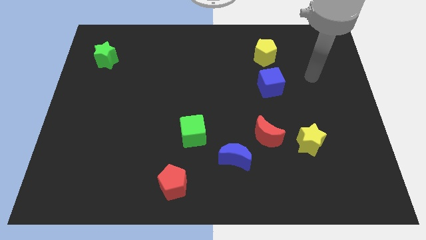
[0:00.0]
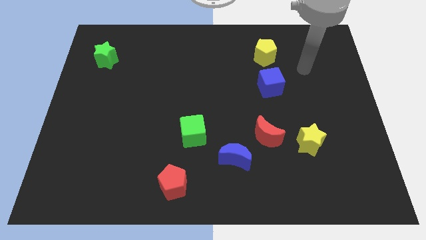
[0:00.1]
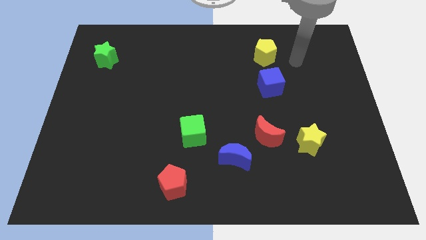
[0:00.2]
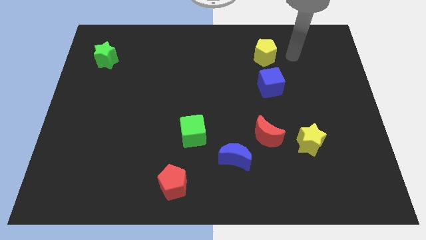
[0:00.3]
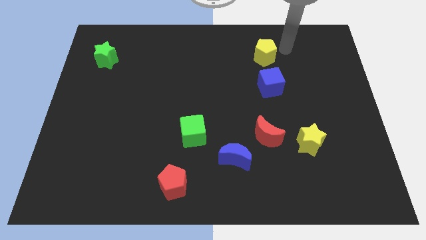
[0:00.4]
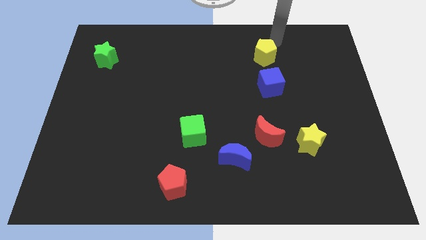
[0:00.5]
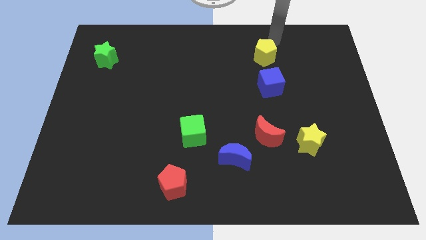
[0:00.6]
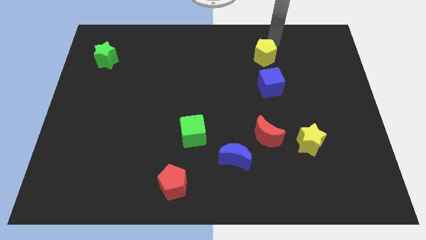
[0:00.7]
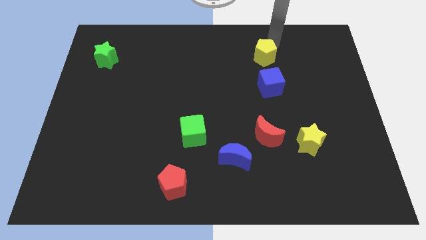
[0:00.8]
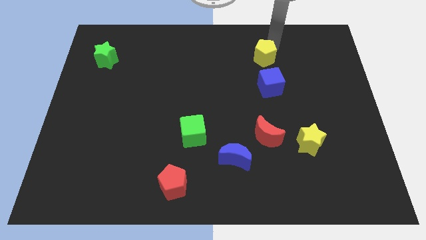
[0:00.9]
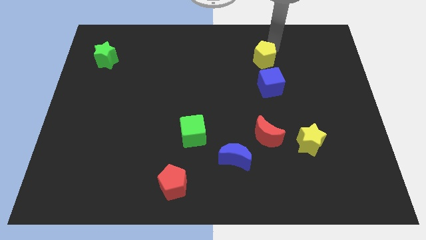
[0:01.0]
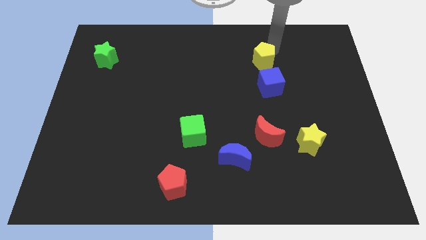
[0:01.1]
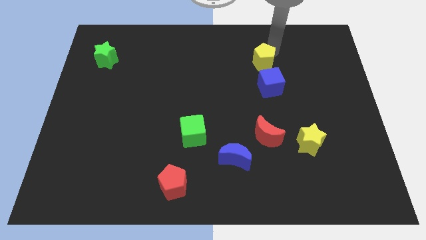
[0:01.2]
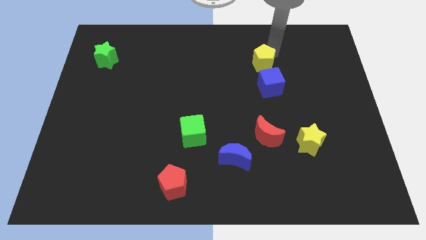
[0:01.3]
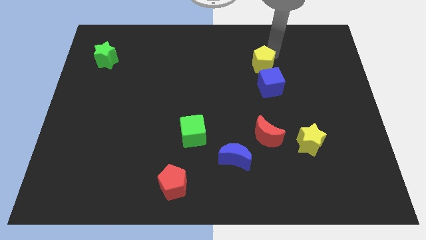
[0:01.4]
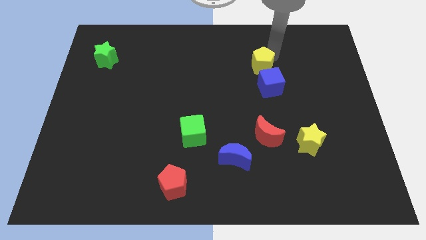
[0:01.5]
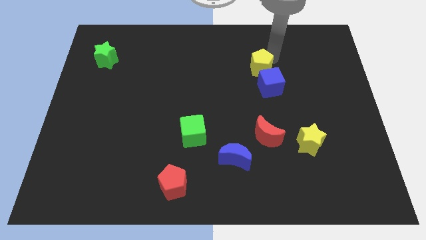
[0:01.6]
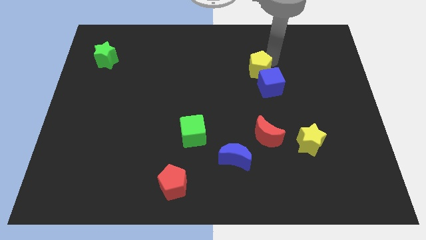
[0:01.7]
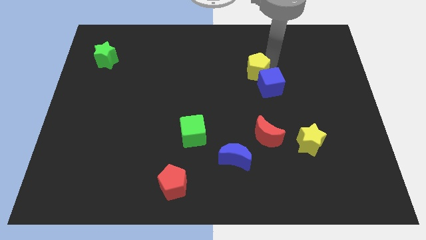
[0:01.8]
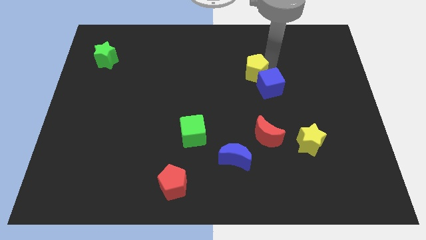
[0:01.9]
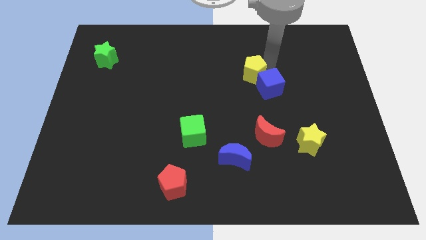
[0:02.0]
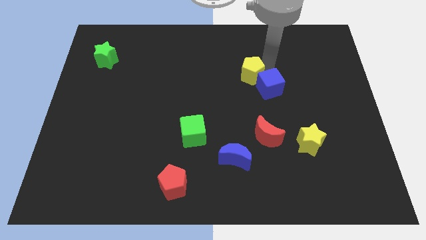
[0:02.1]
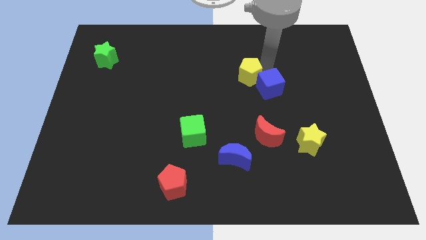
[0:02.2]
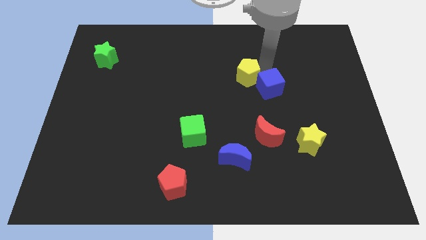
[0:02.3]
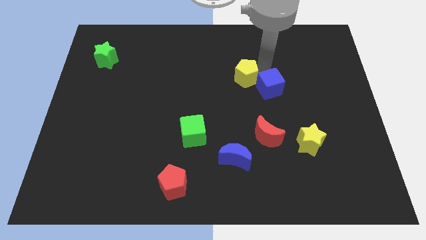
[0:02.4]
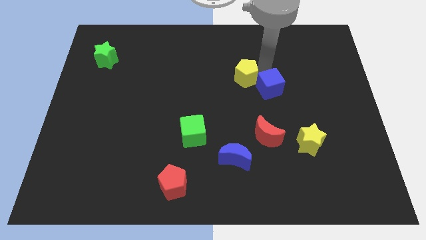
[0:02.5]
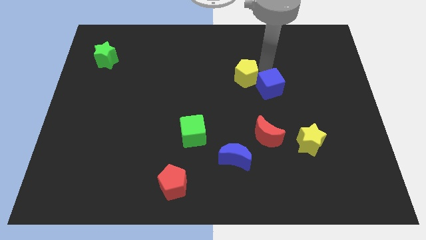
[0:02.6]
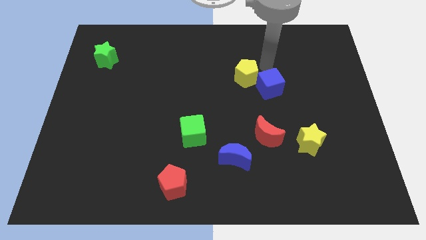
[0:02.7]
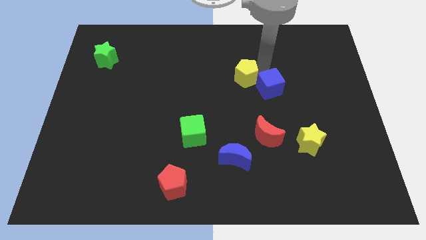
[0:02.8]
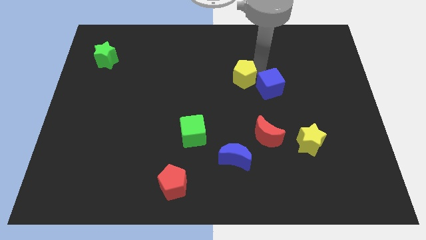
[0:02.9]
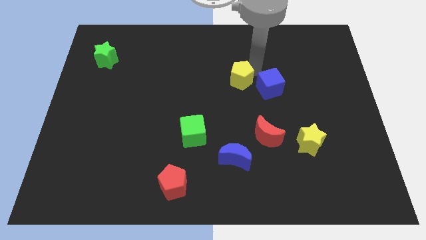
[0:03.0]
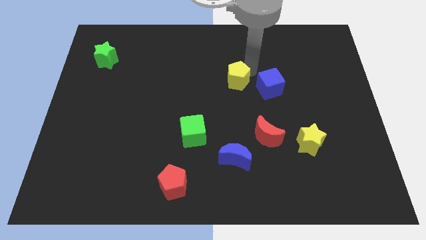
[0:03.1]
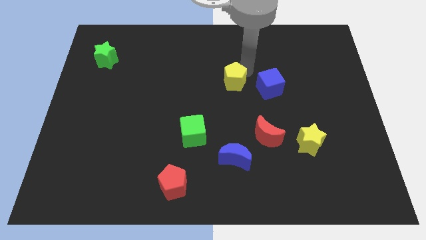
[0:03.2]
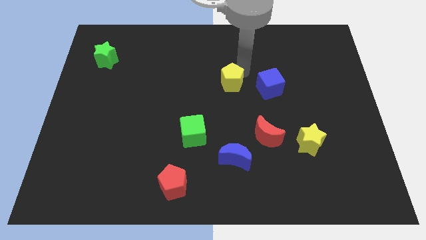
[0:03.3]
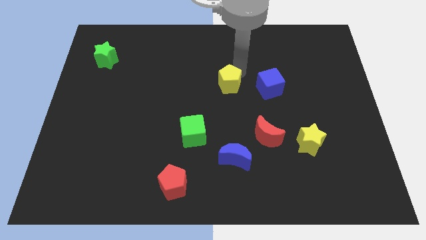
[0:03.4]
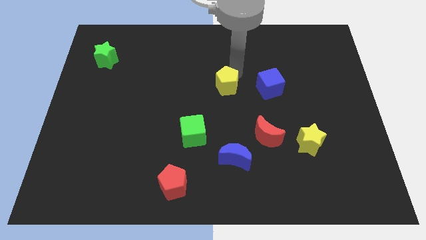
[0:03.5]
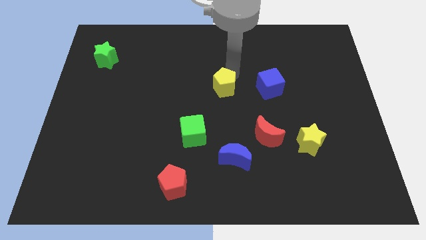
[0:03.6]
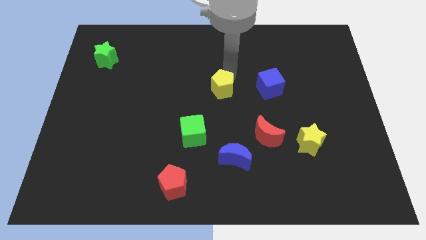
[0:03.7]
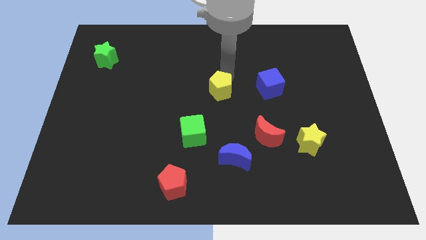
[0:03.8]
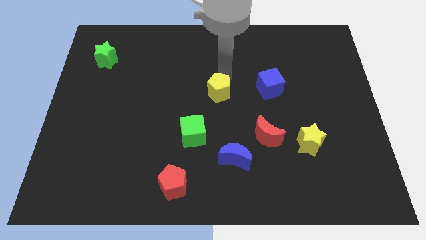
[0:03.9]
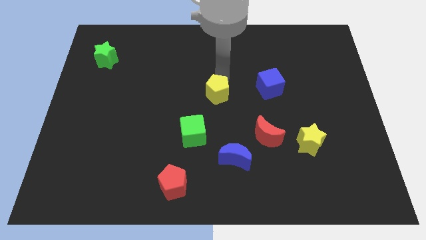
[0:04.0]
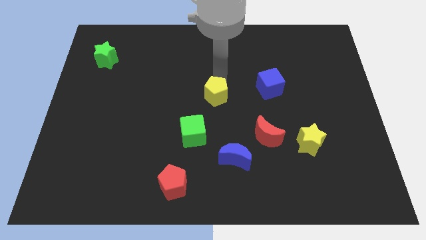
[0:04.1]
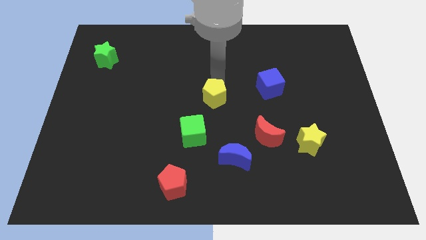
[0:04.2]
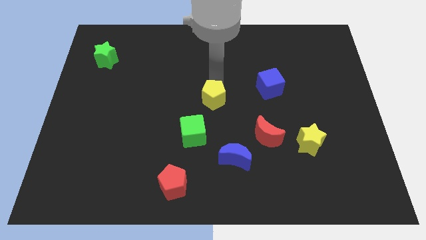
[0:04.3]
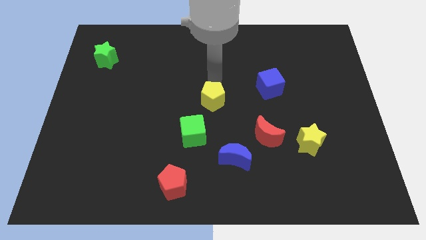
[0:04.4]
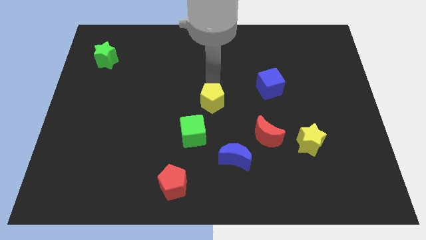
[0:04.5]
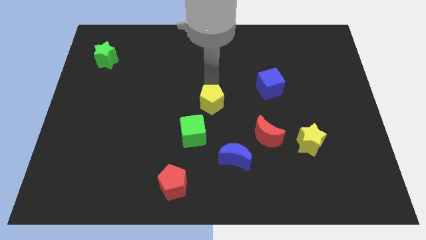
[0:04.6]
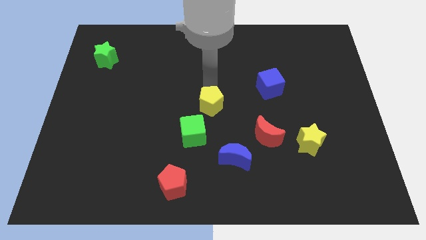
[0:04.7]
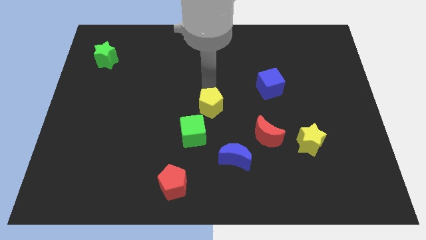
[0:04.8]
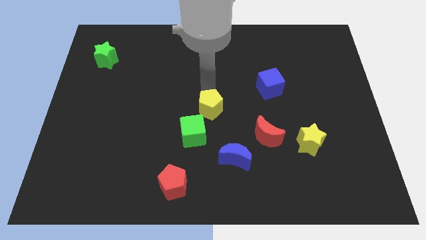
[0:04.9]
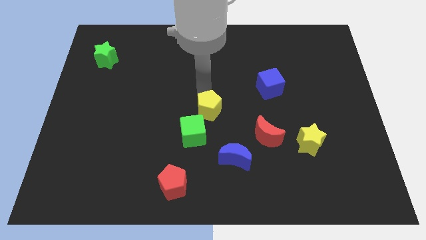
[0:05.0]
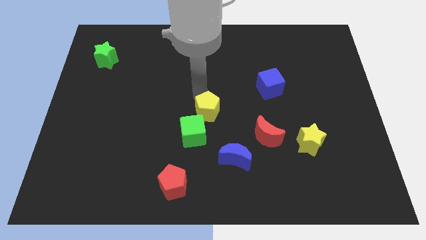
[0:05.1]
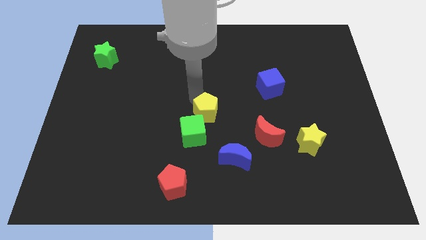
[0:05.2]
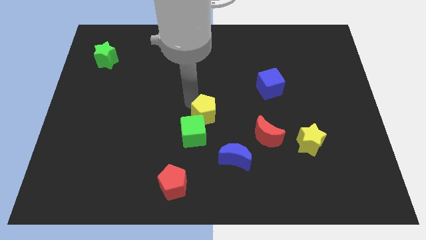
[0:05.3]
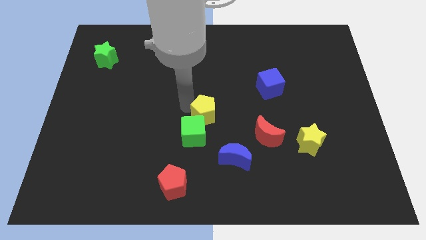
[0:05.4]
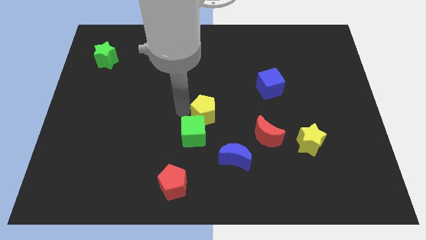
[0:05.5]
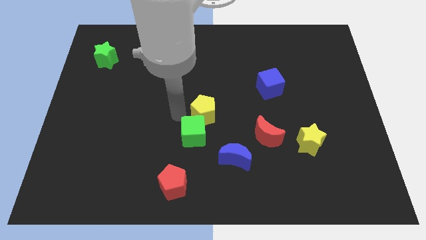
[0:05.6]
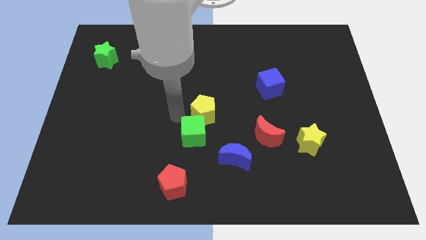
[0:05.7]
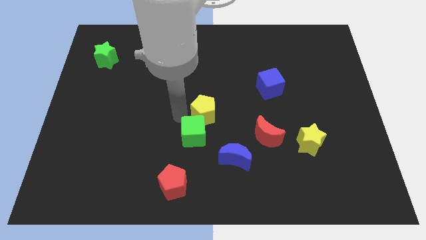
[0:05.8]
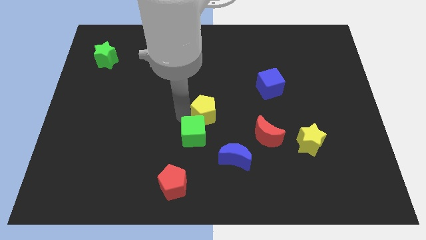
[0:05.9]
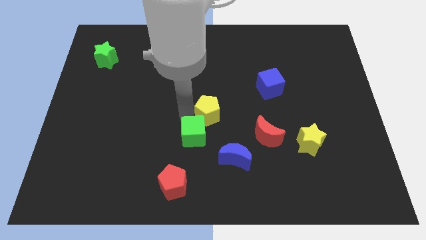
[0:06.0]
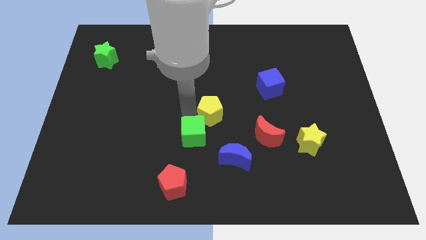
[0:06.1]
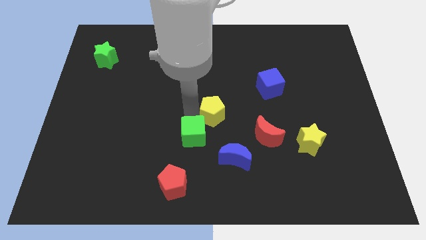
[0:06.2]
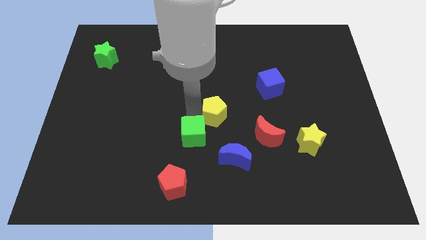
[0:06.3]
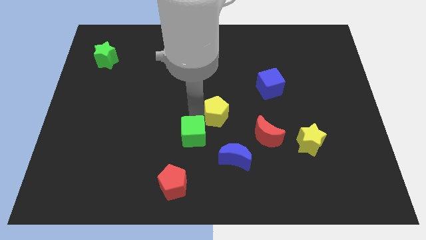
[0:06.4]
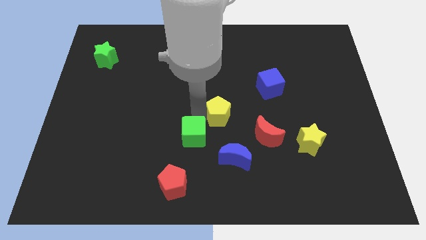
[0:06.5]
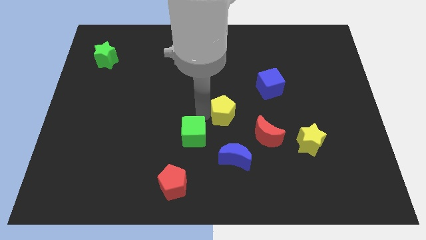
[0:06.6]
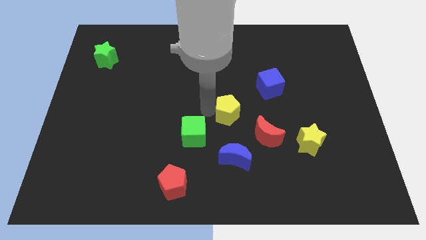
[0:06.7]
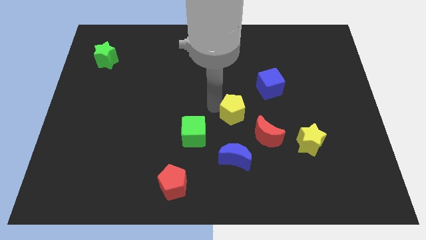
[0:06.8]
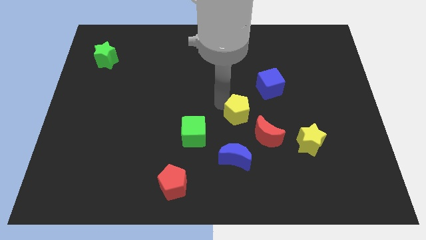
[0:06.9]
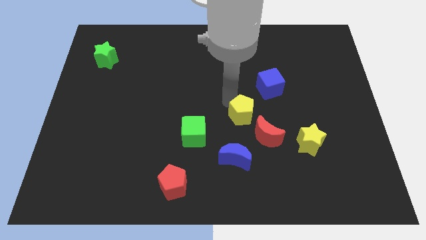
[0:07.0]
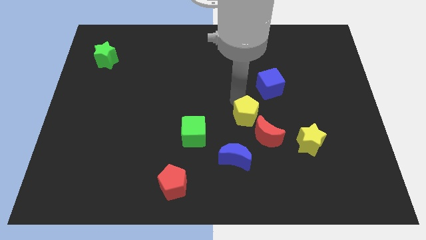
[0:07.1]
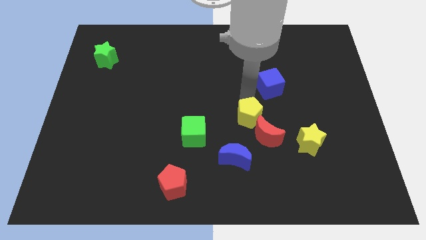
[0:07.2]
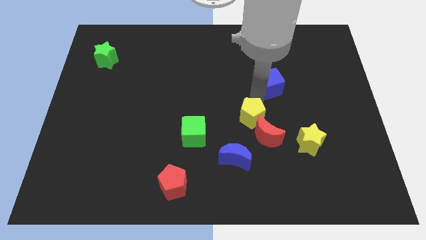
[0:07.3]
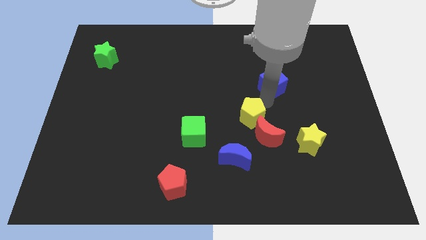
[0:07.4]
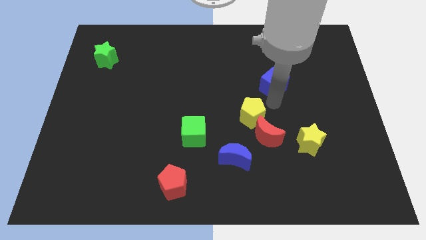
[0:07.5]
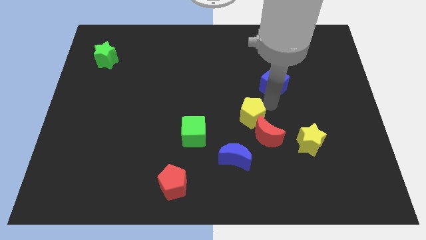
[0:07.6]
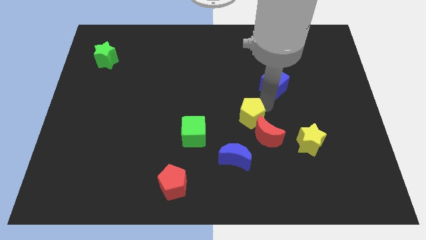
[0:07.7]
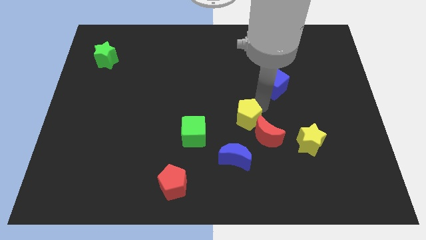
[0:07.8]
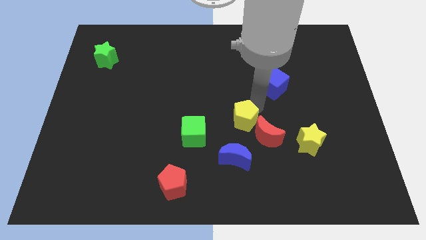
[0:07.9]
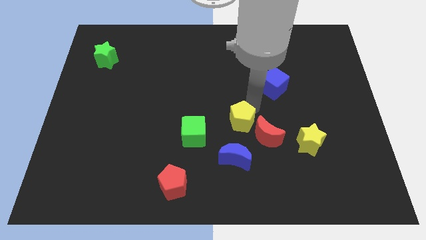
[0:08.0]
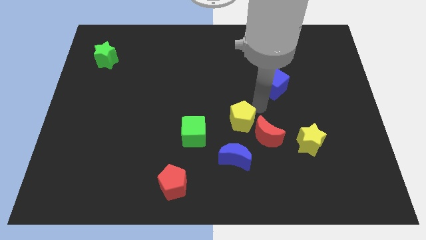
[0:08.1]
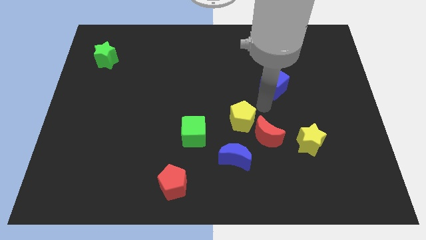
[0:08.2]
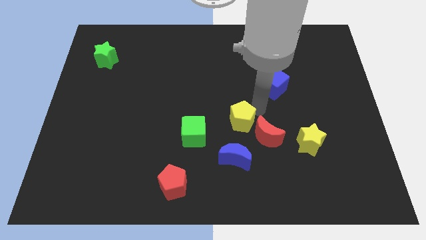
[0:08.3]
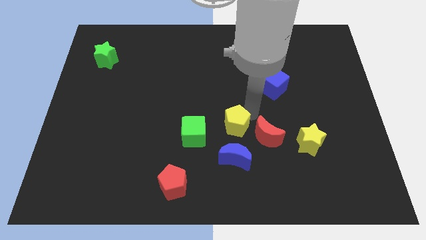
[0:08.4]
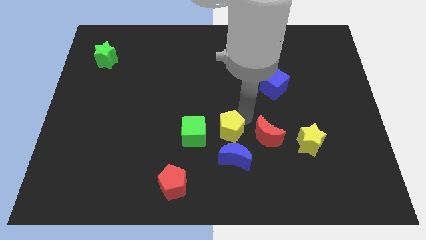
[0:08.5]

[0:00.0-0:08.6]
move the yellow pentagon to the top left side of the blue moon
